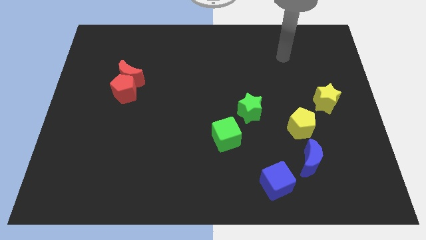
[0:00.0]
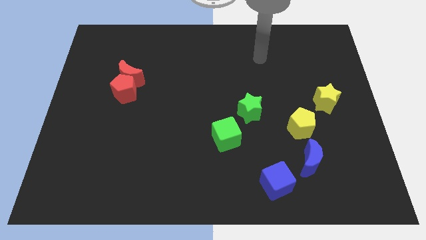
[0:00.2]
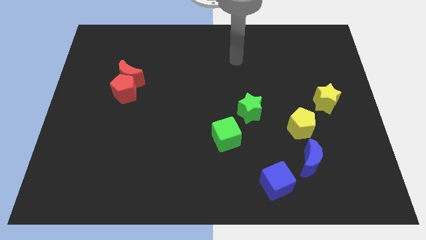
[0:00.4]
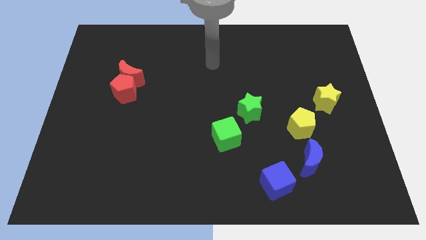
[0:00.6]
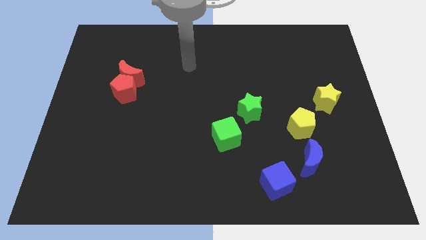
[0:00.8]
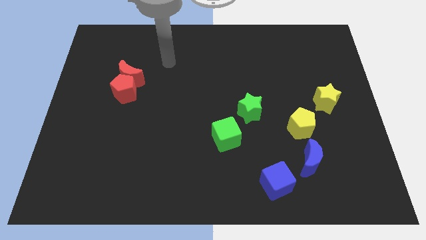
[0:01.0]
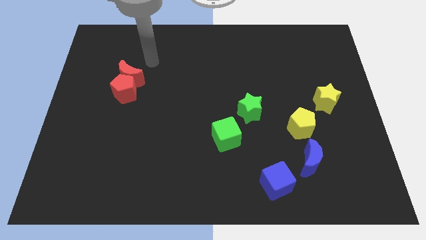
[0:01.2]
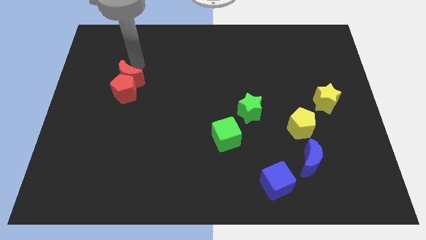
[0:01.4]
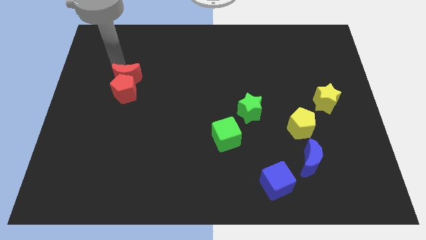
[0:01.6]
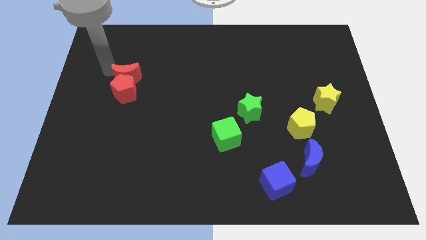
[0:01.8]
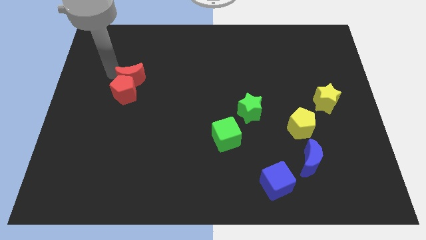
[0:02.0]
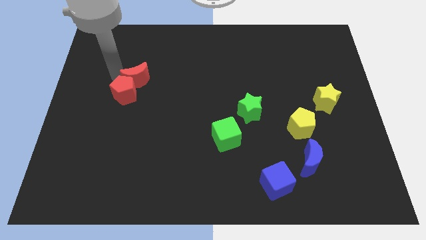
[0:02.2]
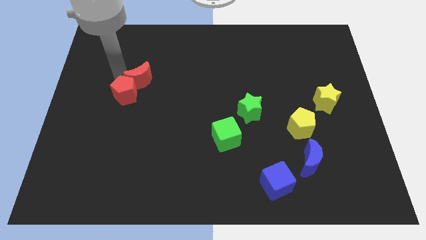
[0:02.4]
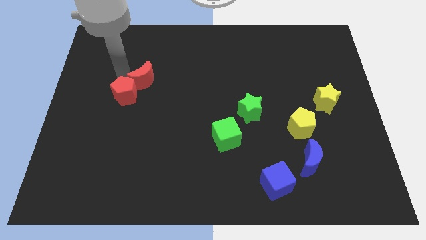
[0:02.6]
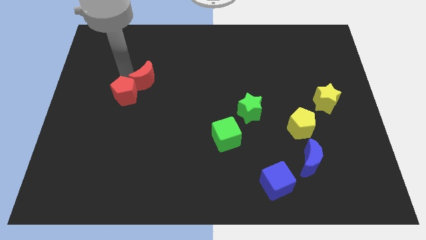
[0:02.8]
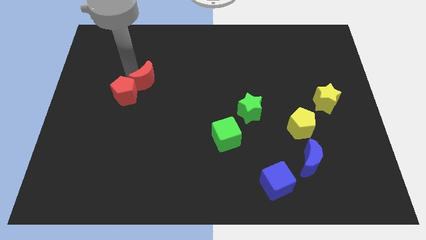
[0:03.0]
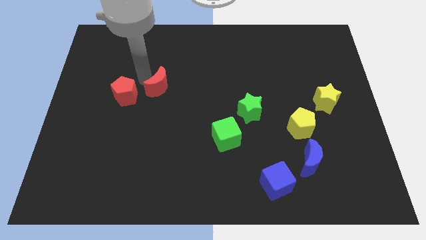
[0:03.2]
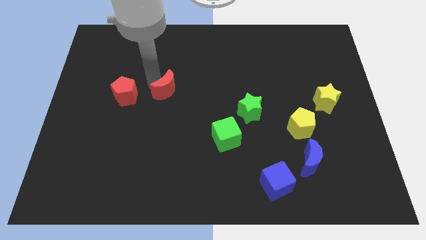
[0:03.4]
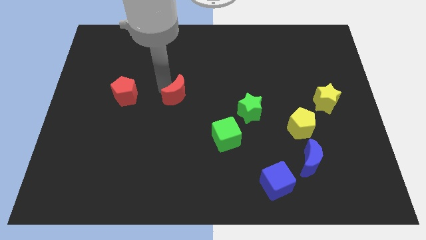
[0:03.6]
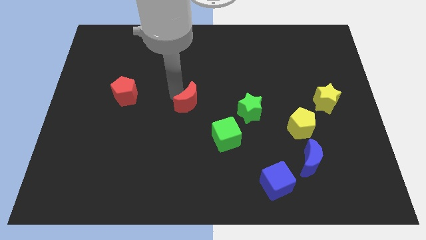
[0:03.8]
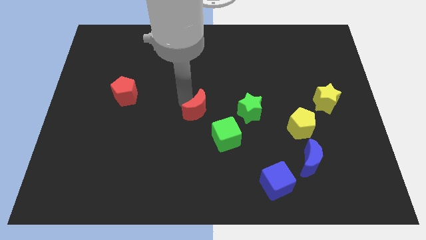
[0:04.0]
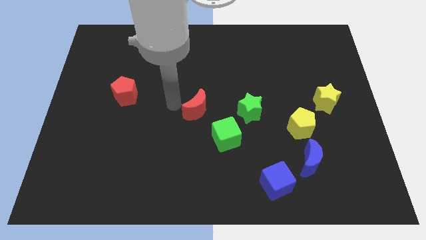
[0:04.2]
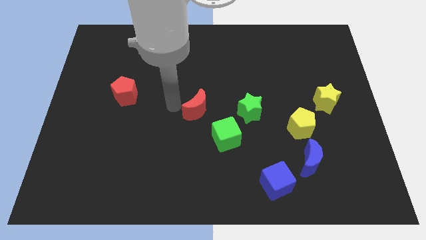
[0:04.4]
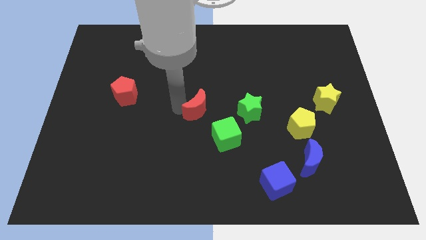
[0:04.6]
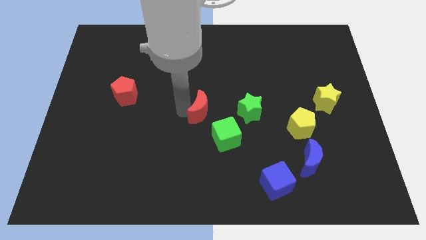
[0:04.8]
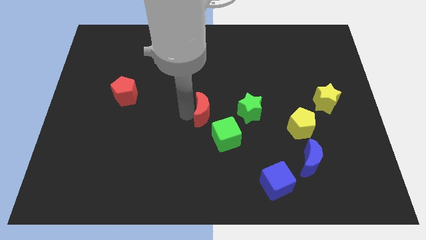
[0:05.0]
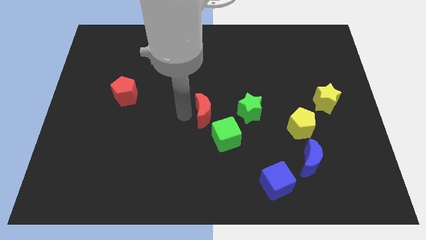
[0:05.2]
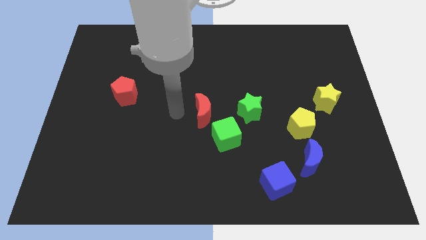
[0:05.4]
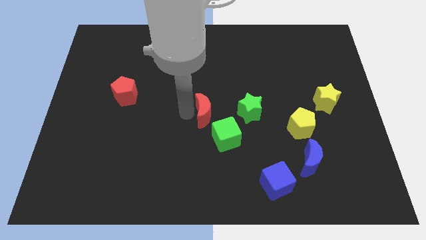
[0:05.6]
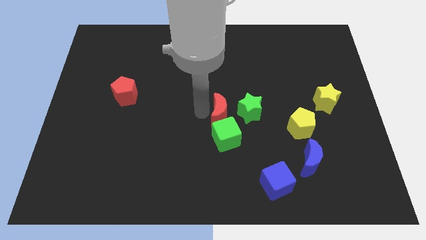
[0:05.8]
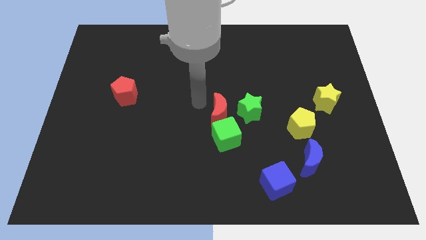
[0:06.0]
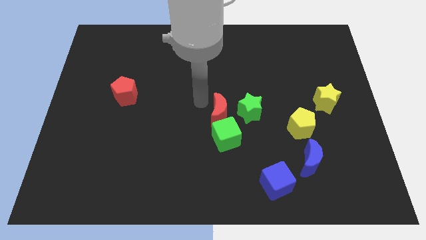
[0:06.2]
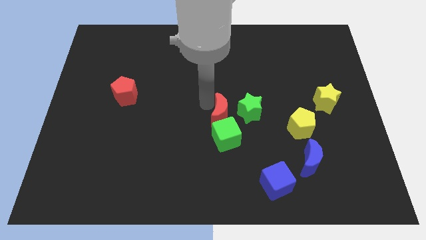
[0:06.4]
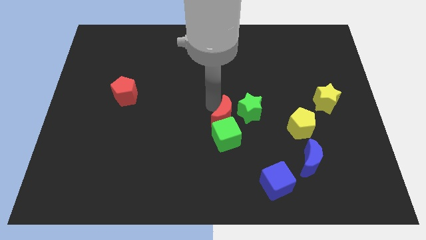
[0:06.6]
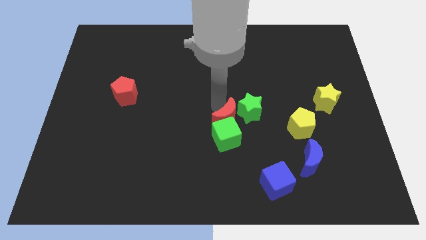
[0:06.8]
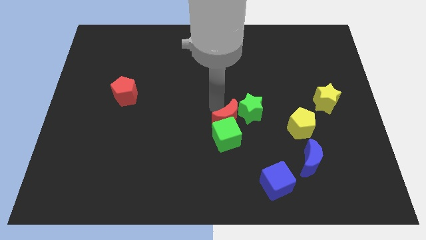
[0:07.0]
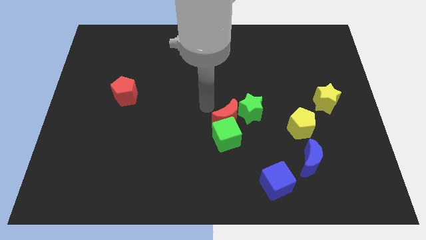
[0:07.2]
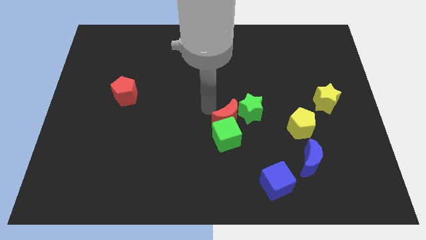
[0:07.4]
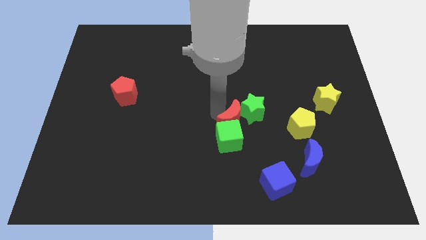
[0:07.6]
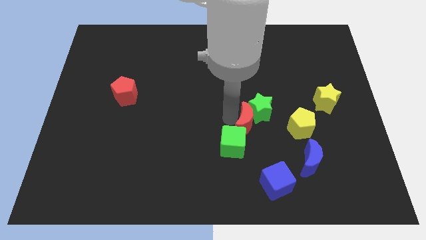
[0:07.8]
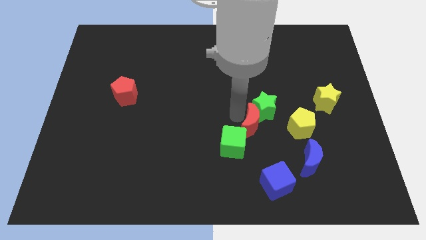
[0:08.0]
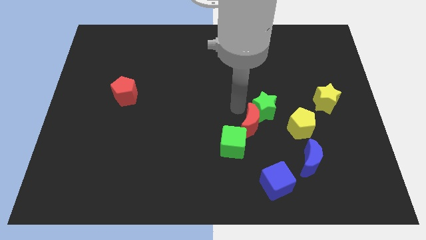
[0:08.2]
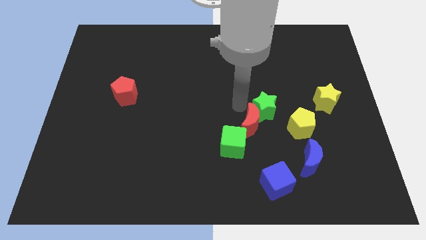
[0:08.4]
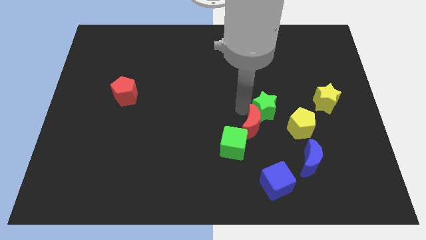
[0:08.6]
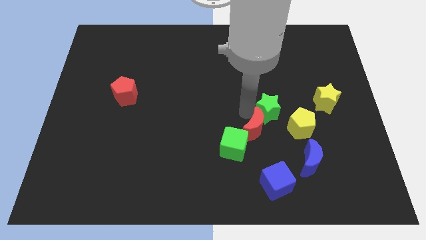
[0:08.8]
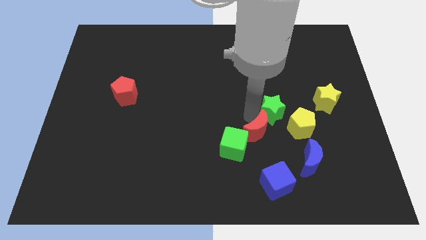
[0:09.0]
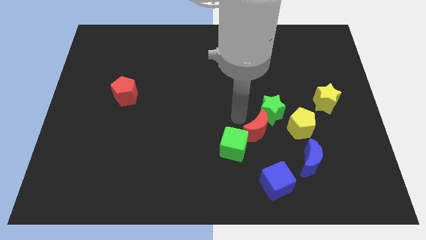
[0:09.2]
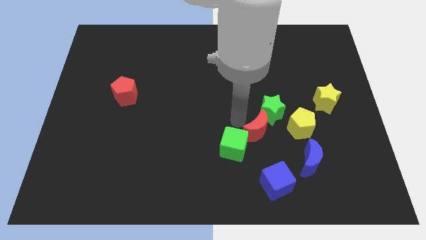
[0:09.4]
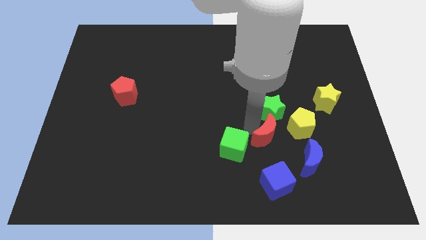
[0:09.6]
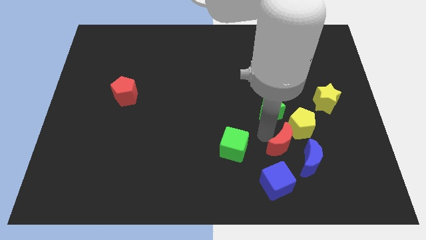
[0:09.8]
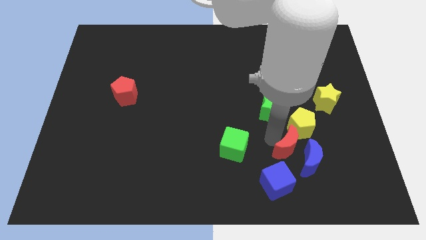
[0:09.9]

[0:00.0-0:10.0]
slide the red moon to the blue moon

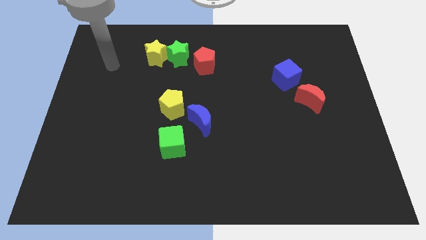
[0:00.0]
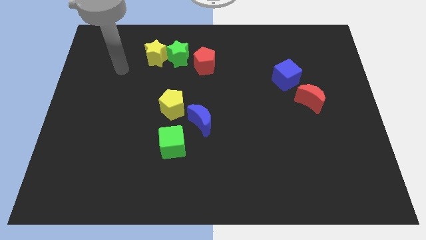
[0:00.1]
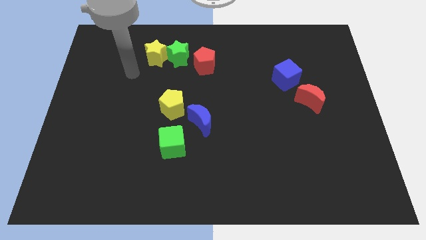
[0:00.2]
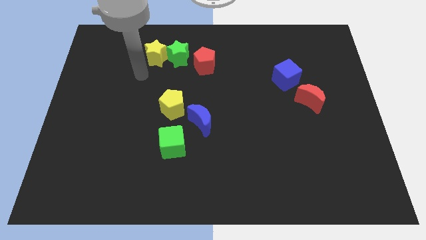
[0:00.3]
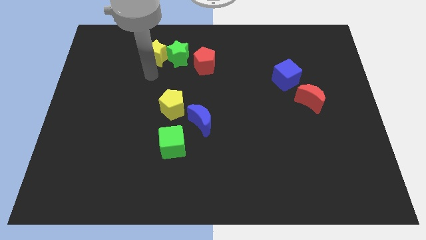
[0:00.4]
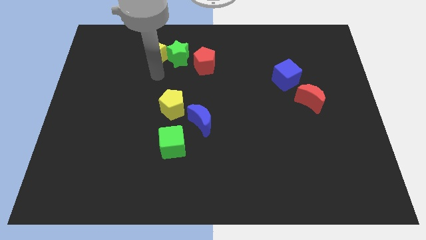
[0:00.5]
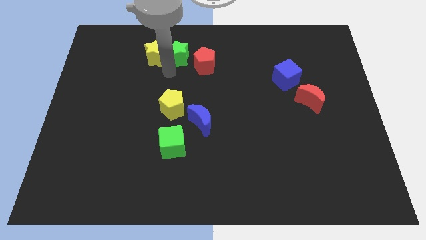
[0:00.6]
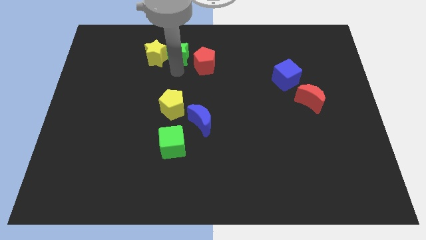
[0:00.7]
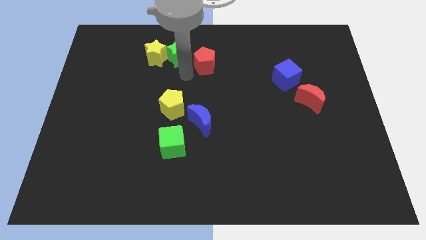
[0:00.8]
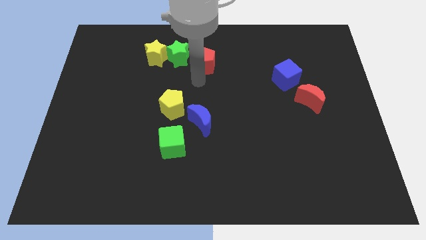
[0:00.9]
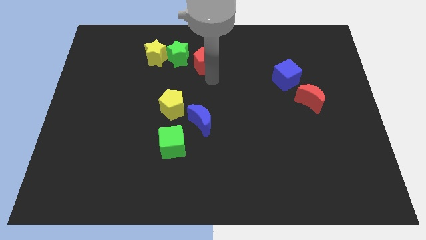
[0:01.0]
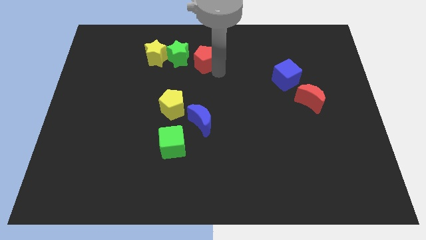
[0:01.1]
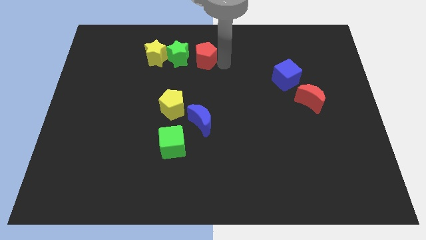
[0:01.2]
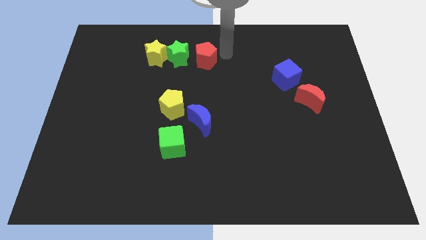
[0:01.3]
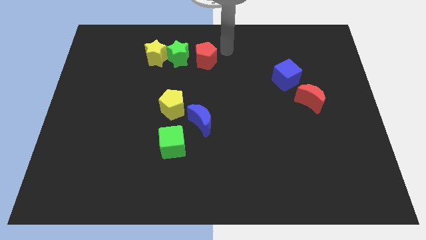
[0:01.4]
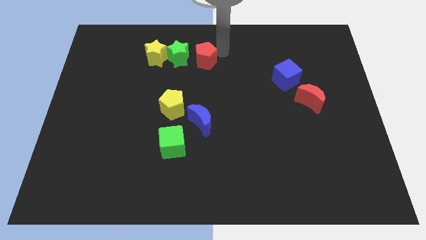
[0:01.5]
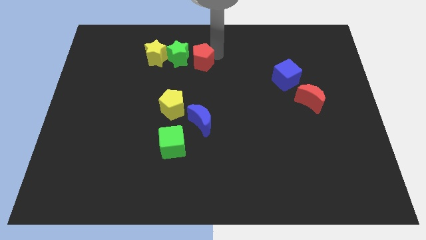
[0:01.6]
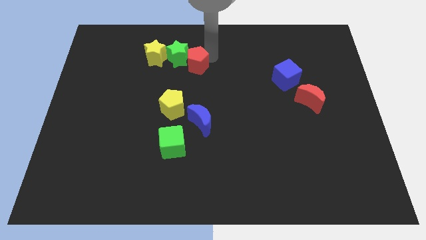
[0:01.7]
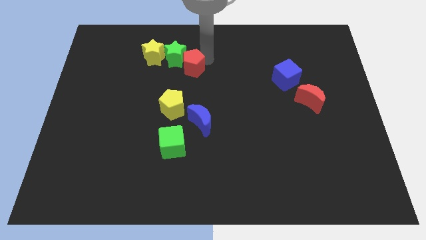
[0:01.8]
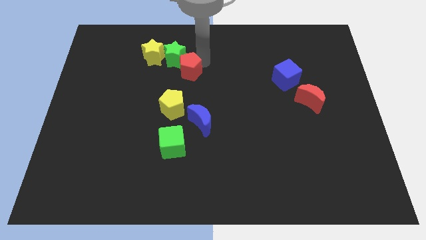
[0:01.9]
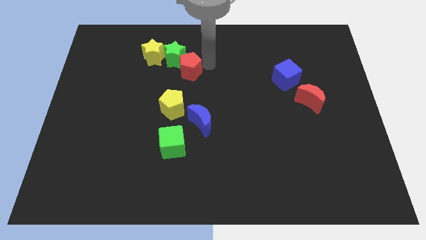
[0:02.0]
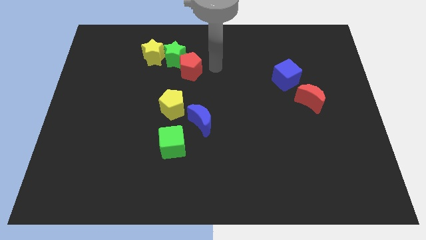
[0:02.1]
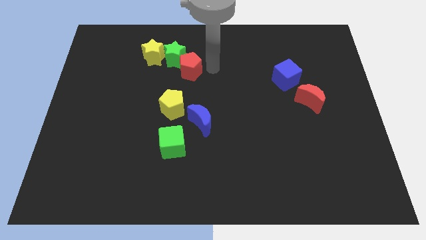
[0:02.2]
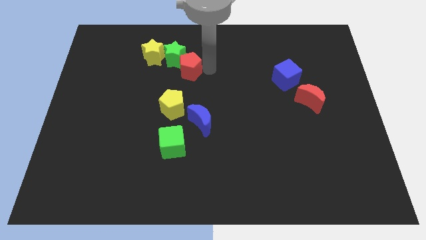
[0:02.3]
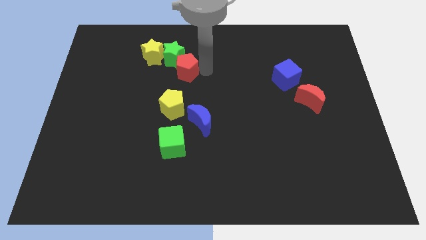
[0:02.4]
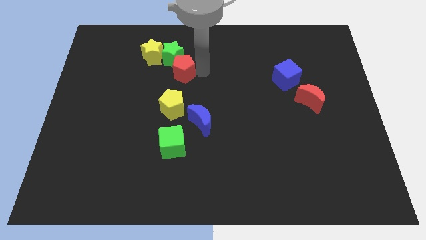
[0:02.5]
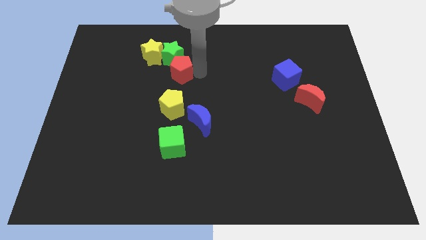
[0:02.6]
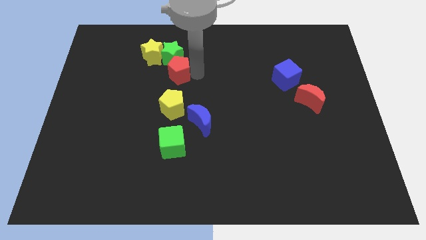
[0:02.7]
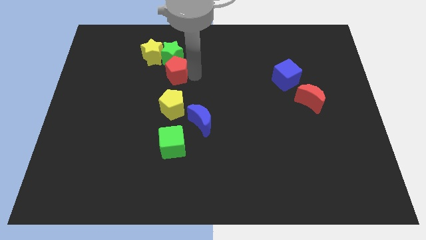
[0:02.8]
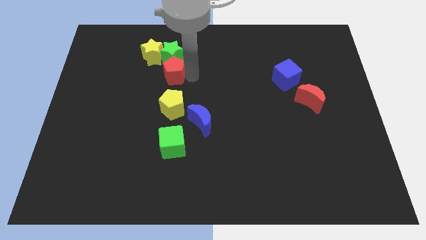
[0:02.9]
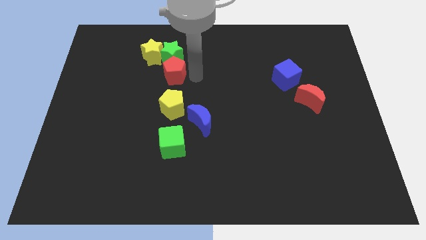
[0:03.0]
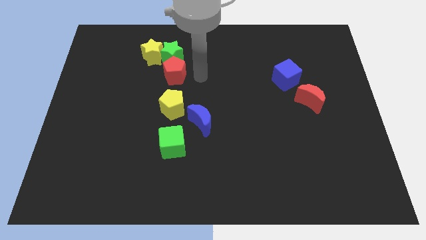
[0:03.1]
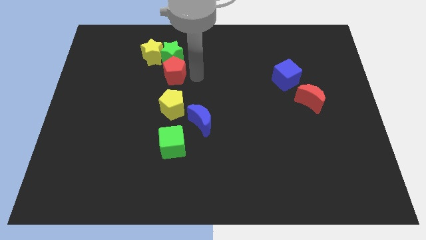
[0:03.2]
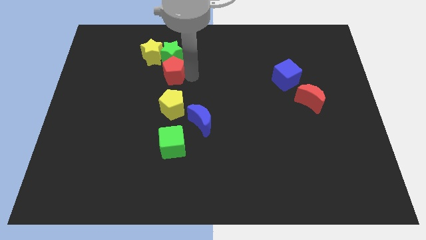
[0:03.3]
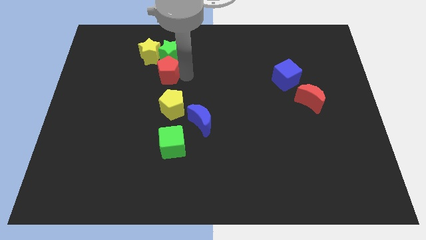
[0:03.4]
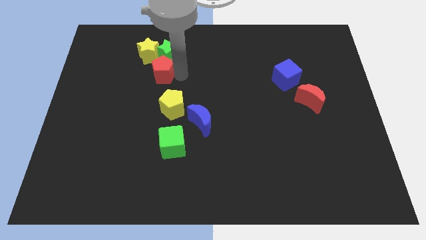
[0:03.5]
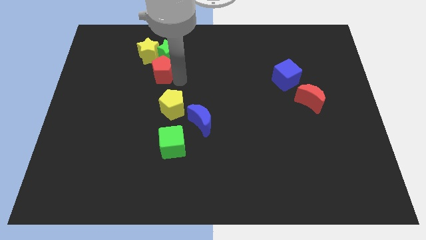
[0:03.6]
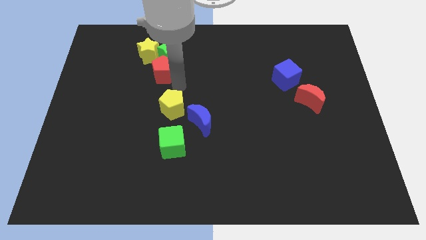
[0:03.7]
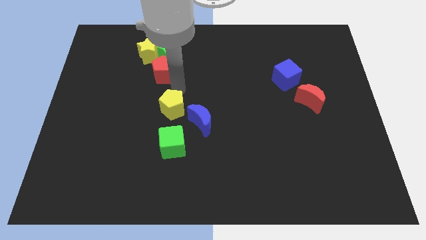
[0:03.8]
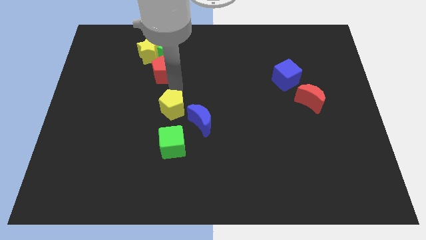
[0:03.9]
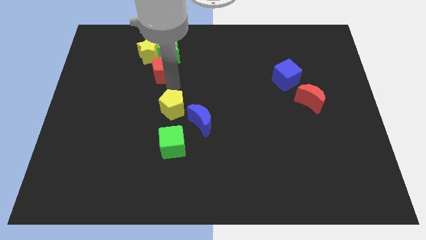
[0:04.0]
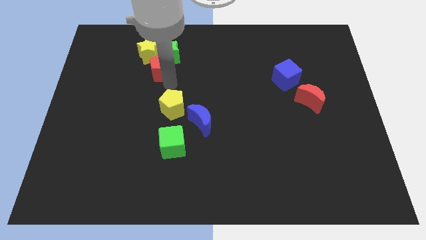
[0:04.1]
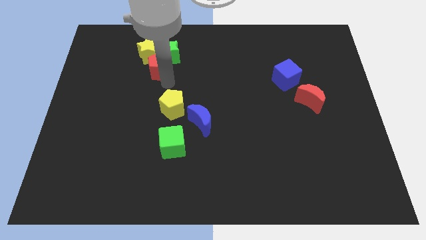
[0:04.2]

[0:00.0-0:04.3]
put the red pentagon next to the yellow star
